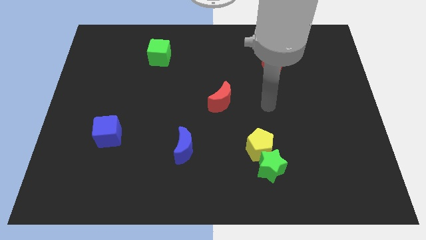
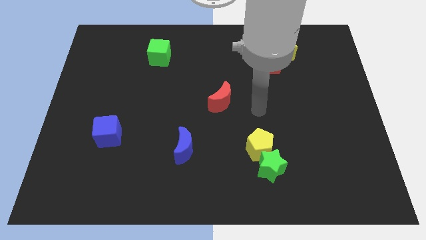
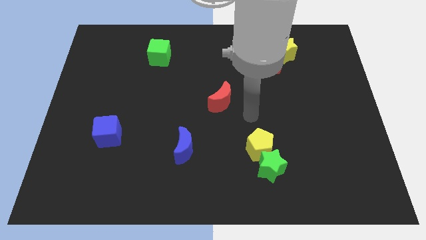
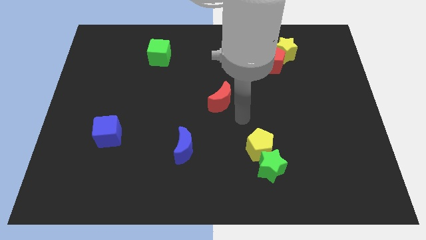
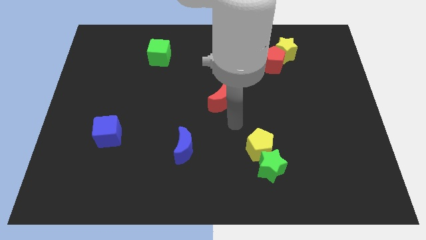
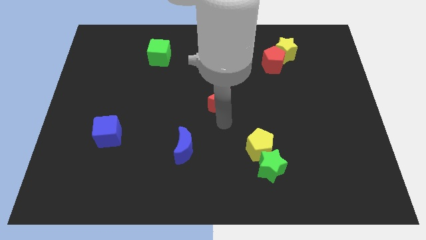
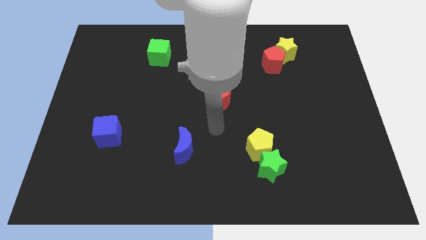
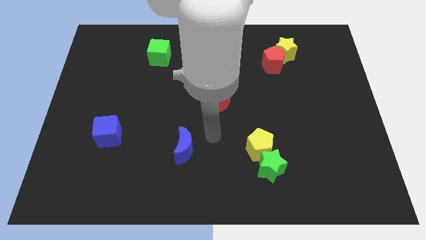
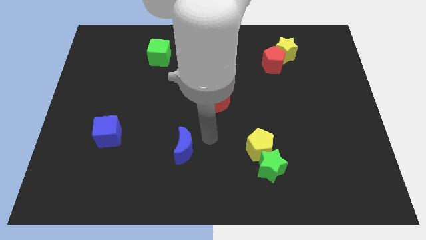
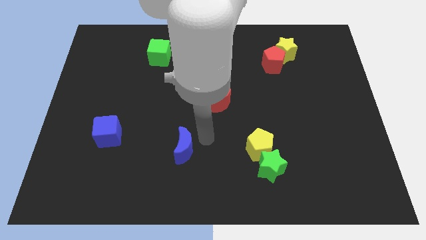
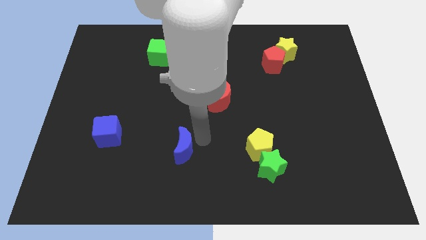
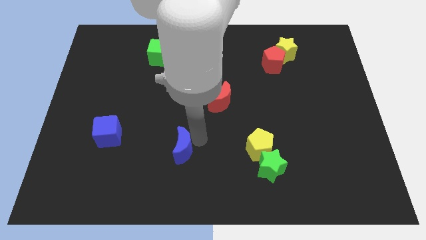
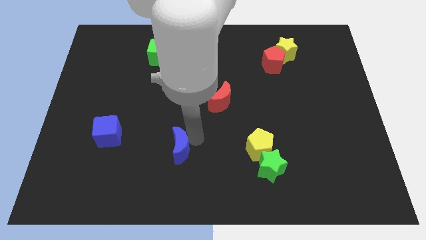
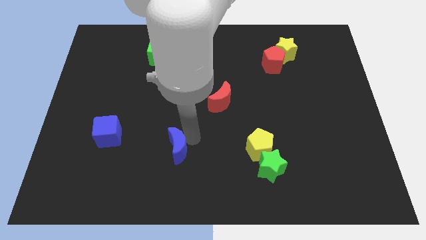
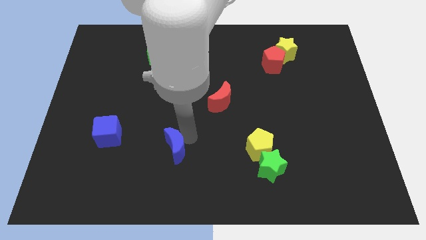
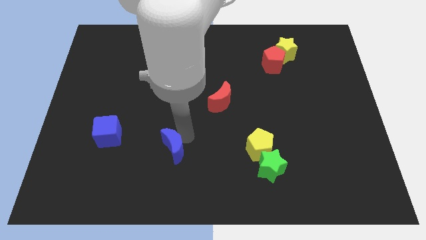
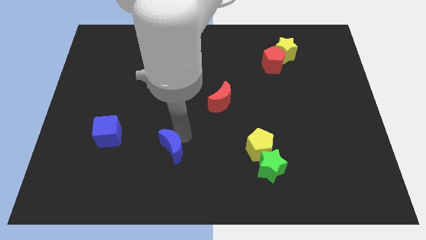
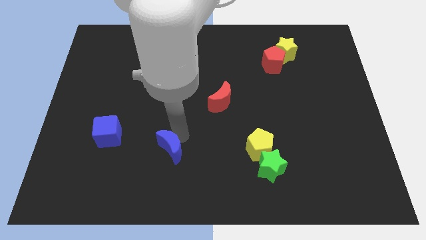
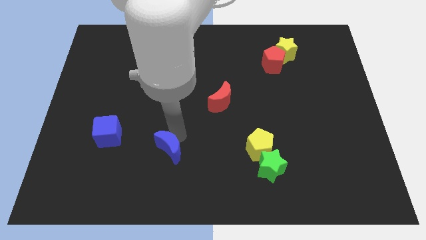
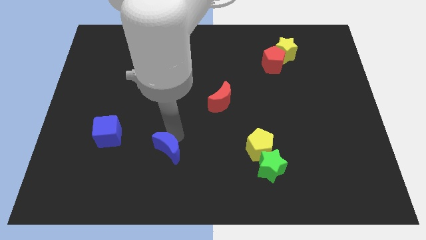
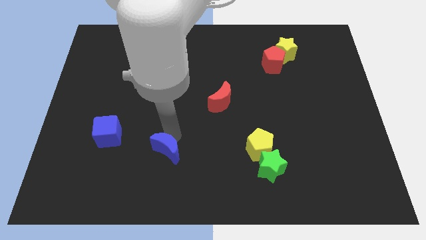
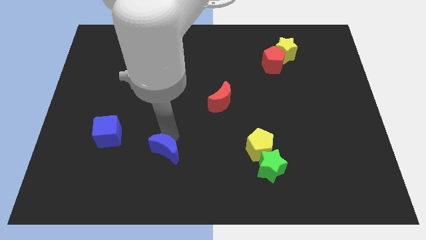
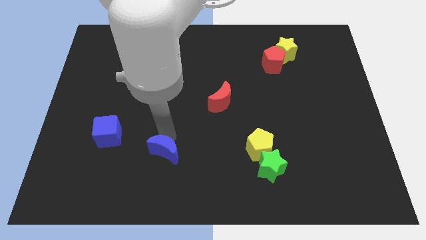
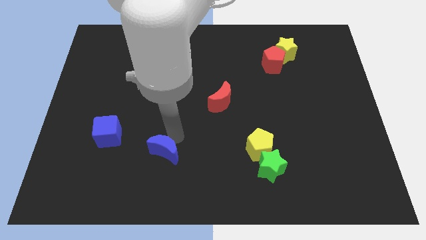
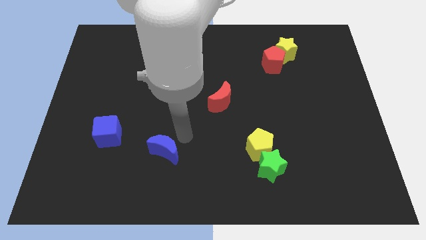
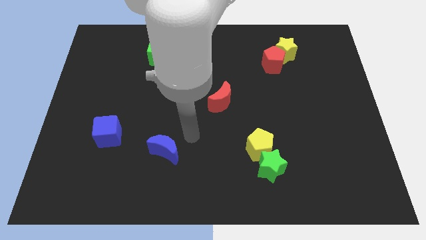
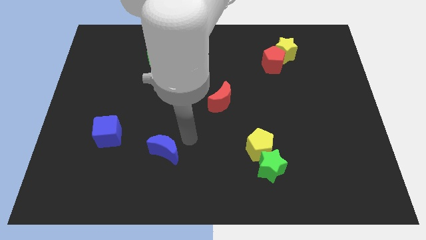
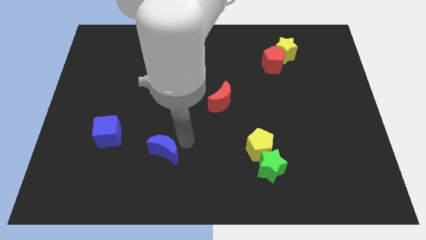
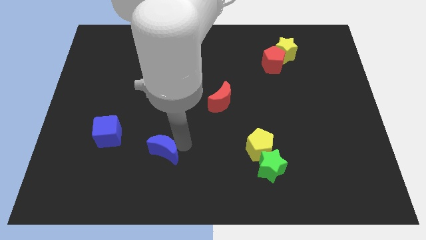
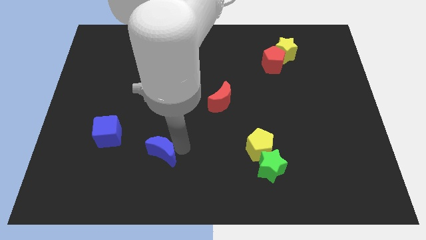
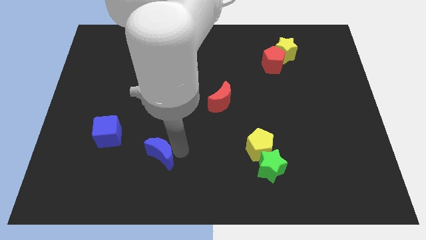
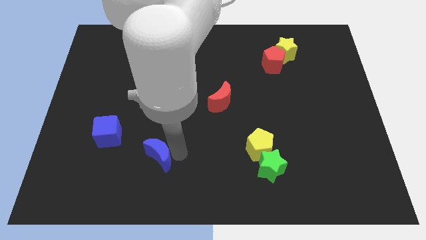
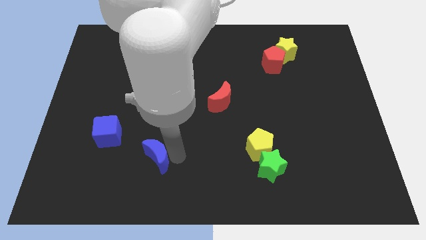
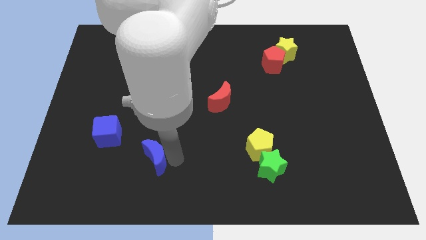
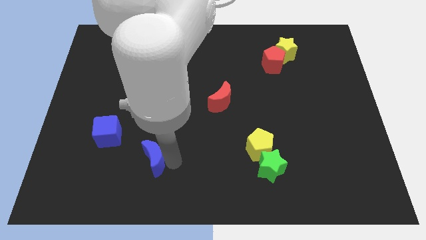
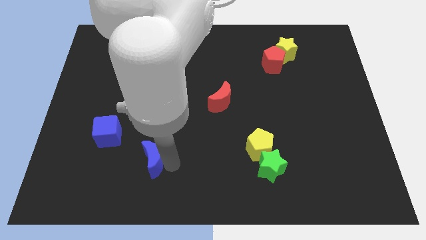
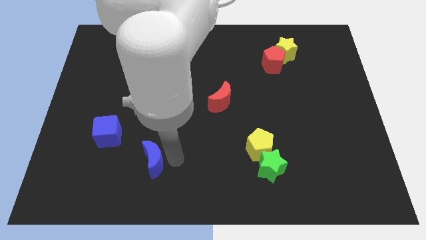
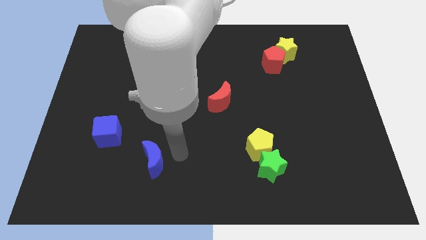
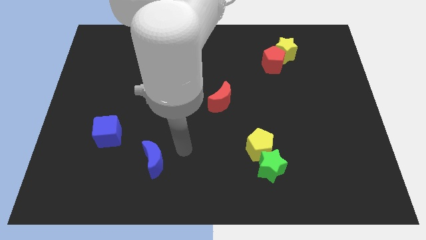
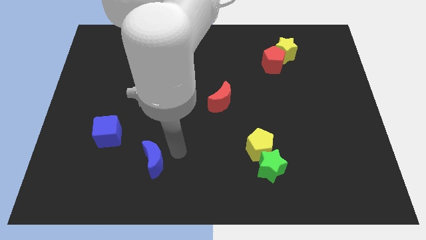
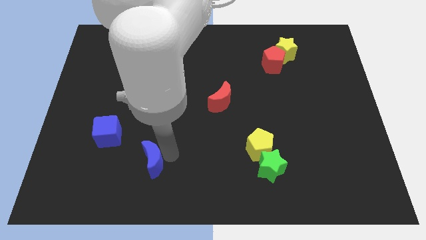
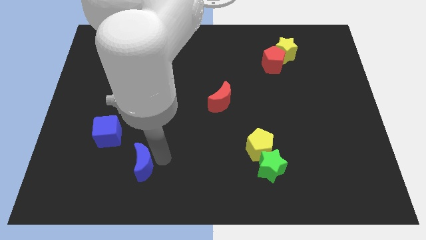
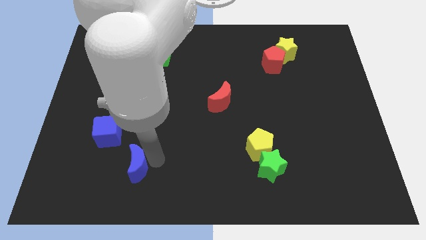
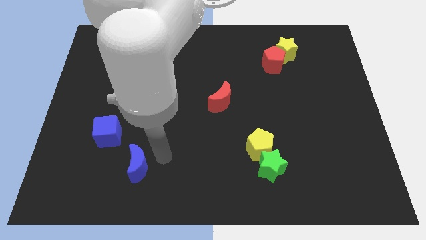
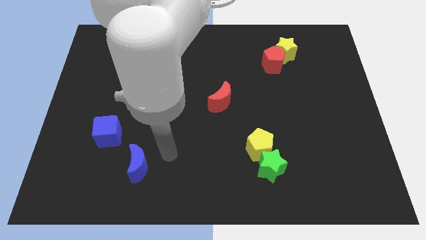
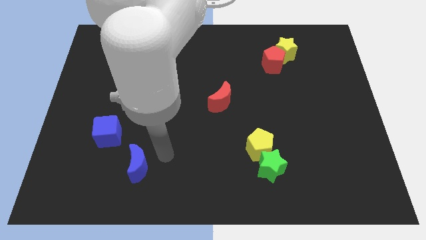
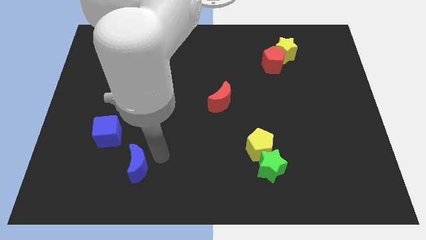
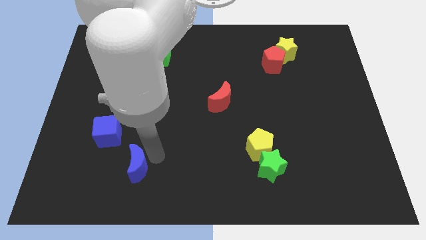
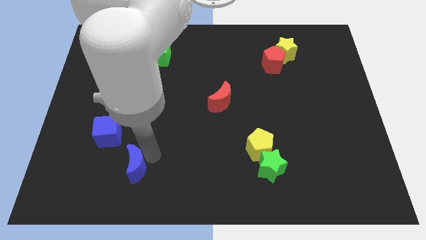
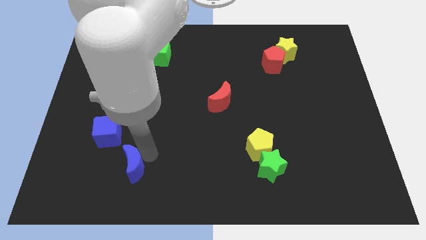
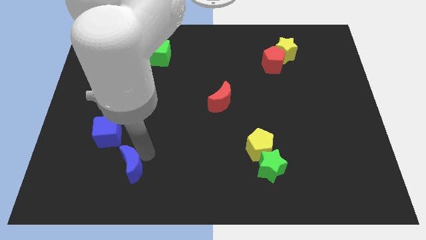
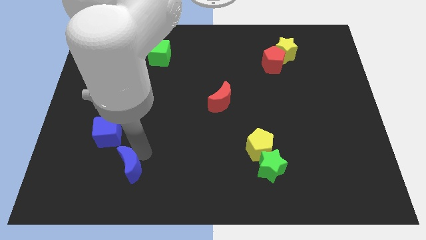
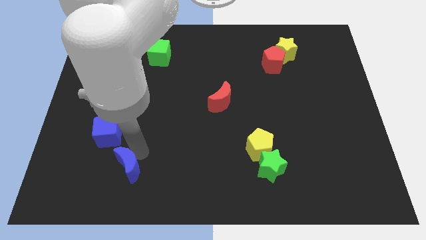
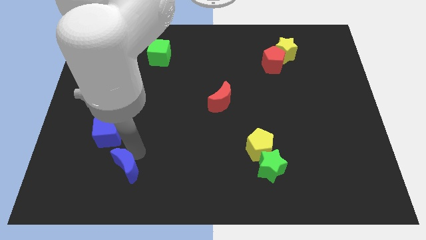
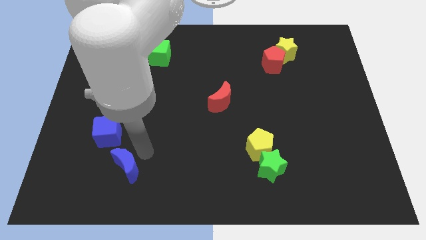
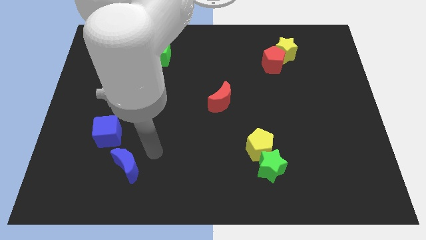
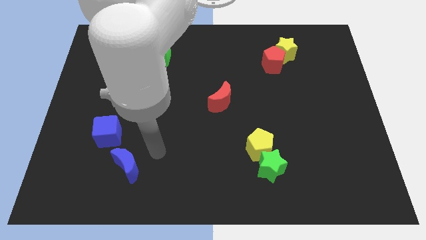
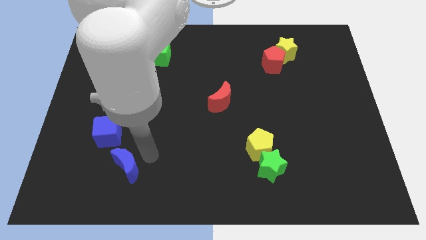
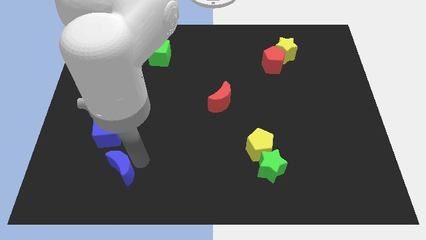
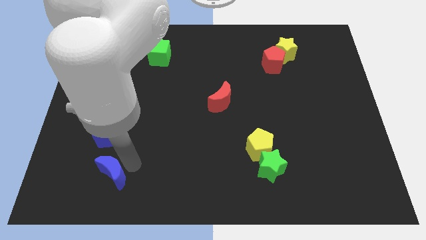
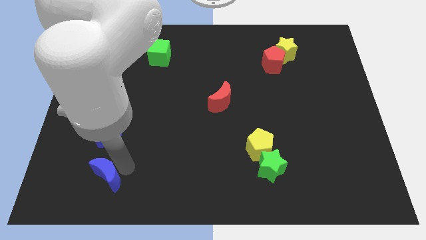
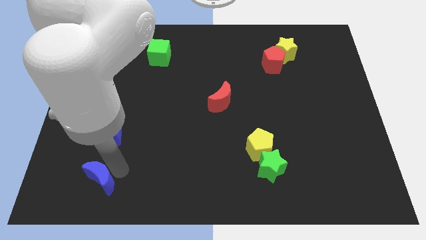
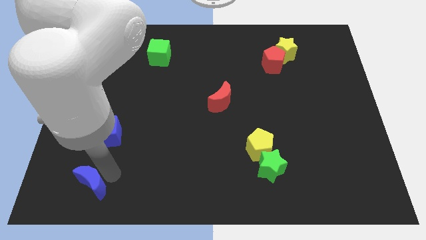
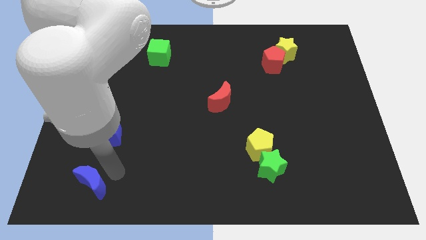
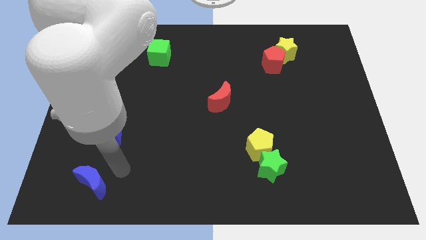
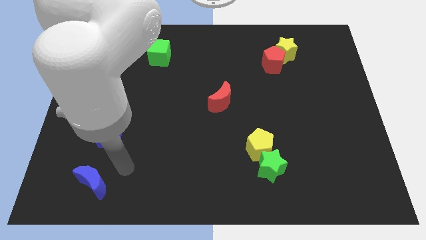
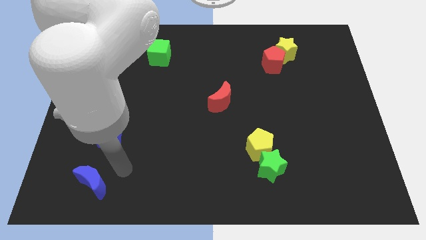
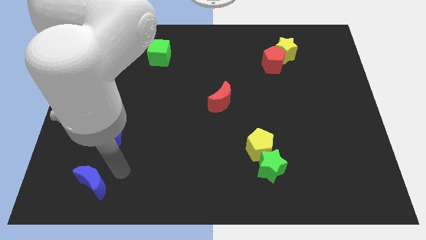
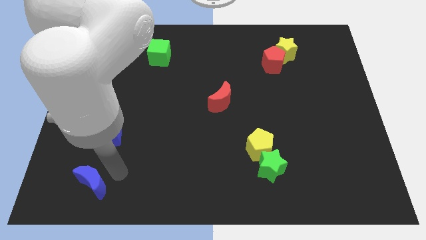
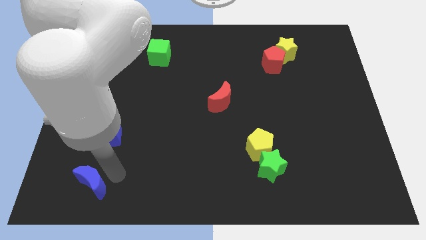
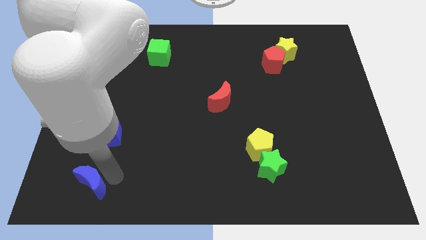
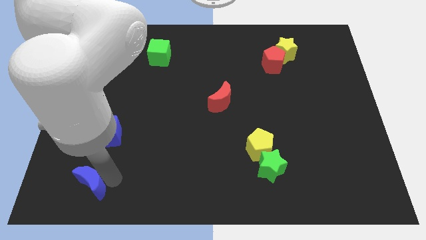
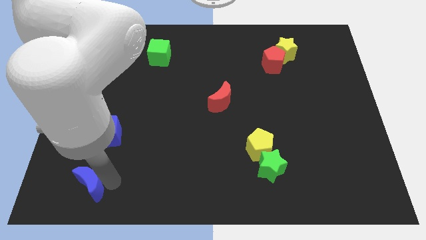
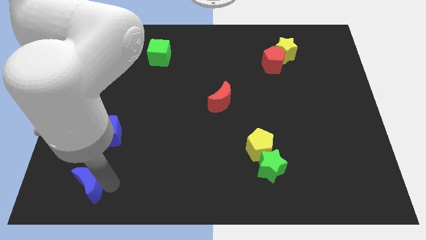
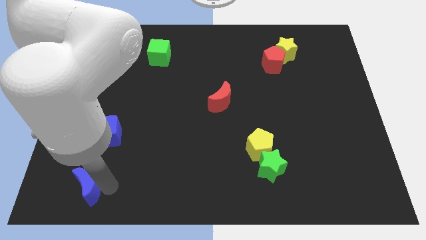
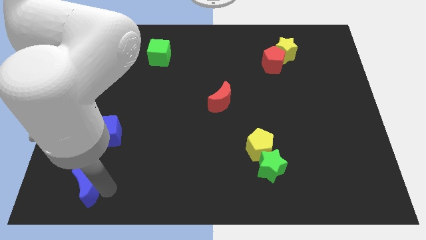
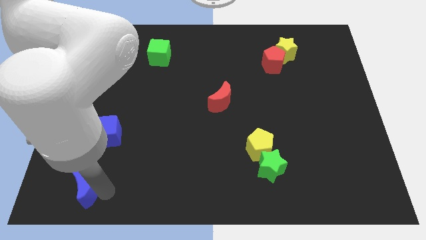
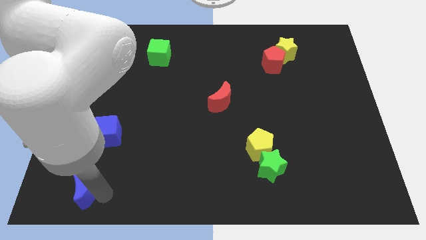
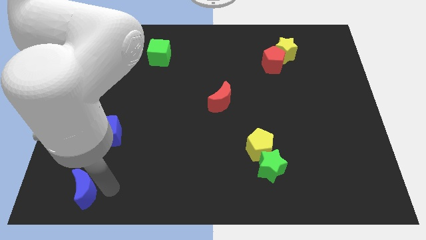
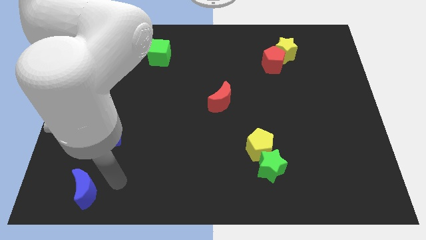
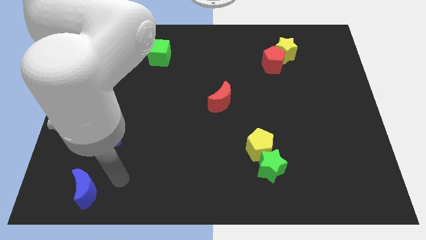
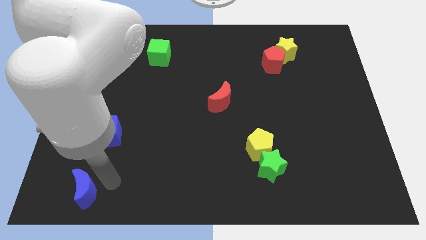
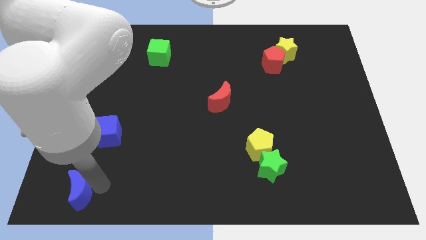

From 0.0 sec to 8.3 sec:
slide the blue moon to the bottom left of the board
